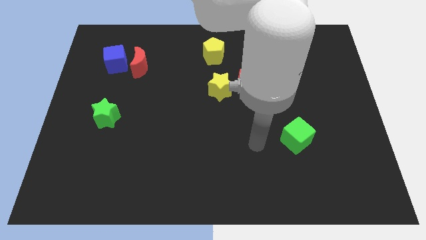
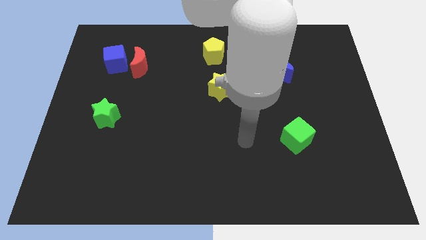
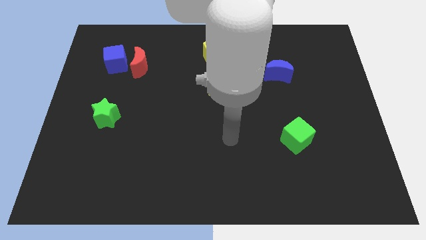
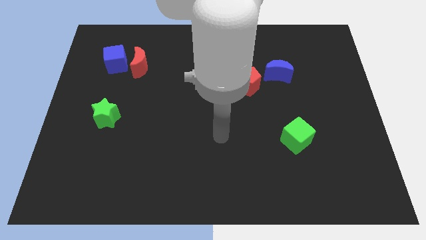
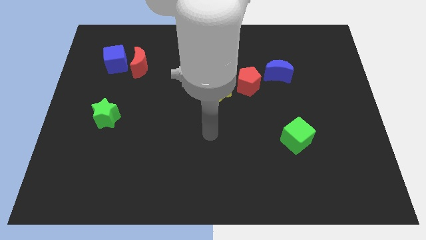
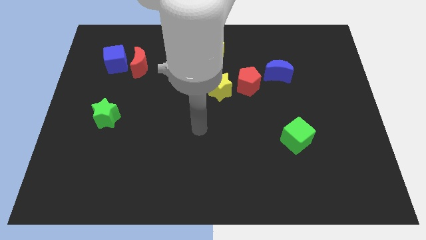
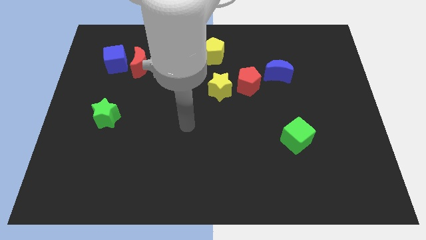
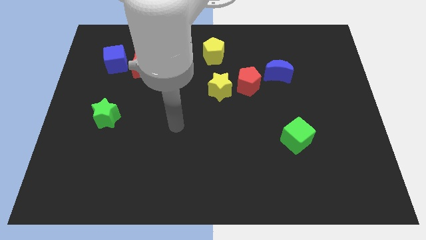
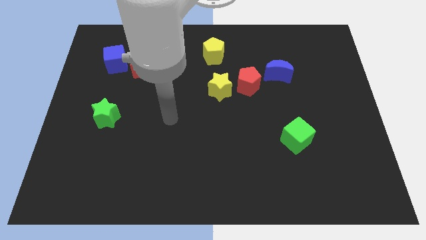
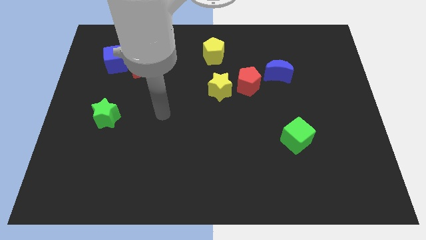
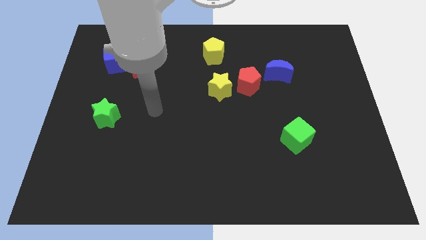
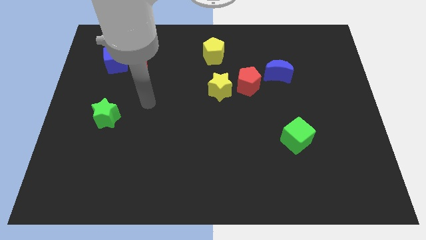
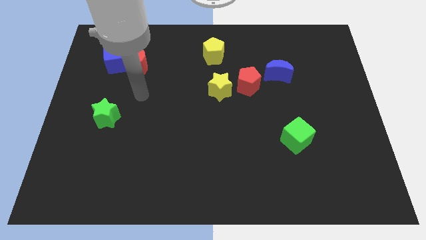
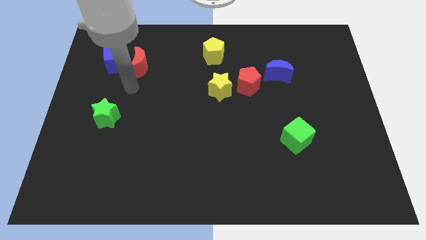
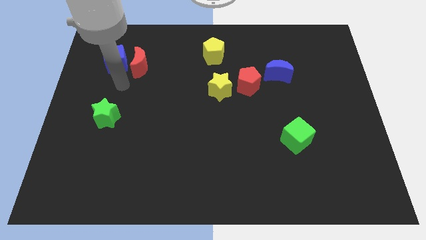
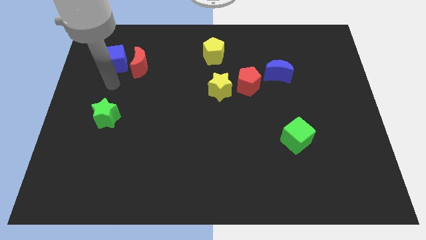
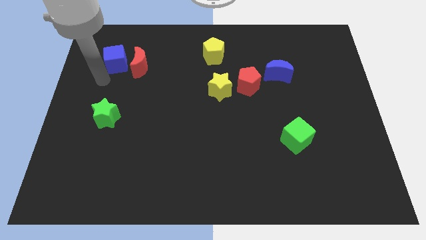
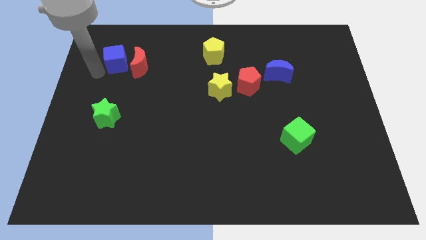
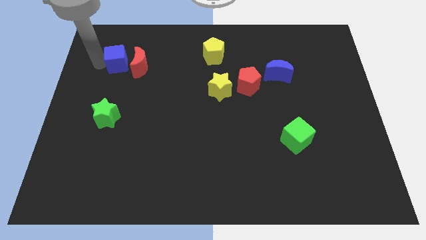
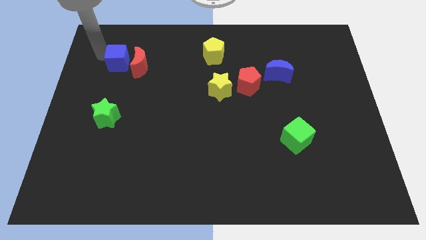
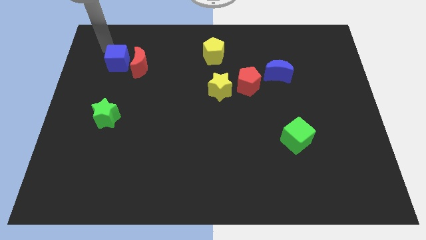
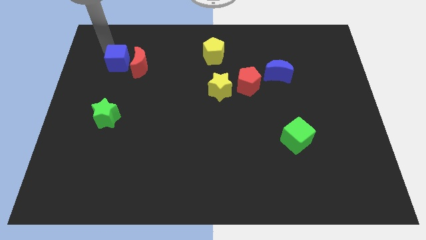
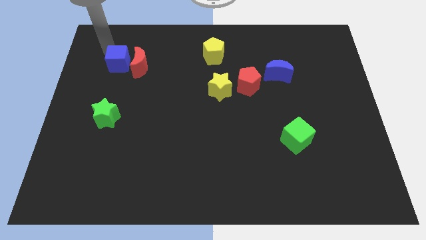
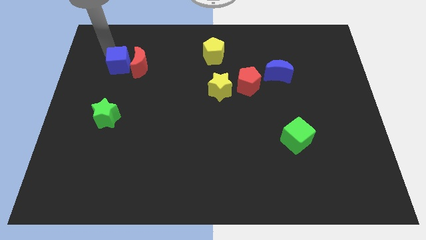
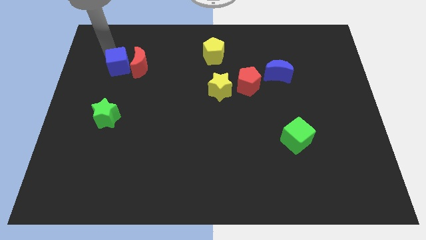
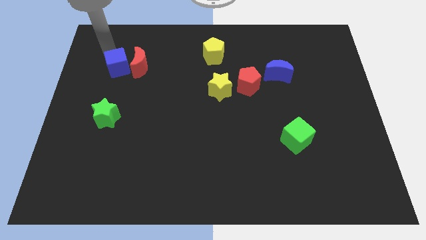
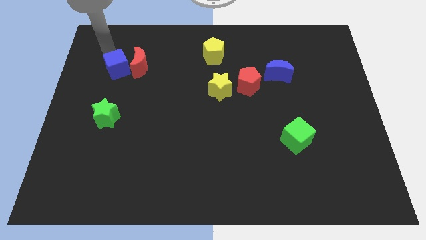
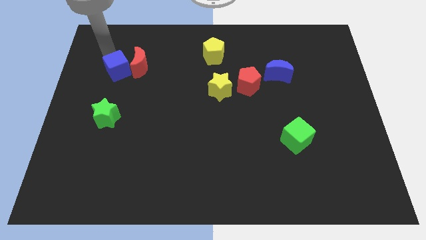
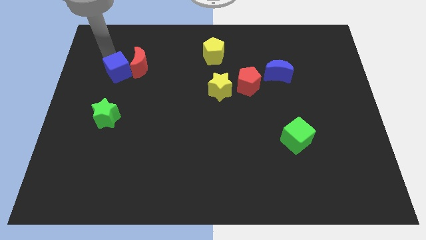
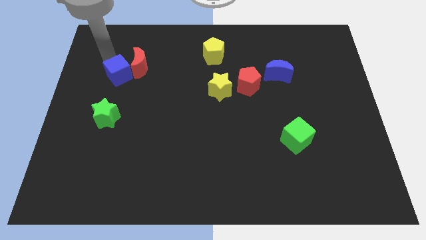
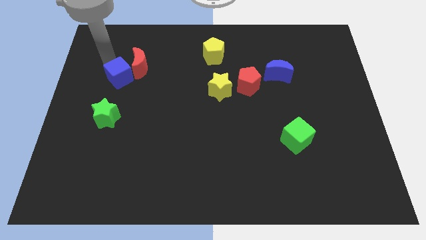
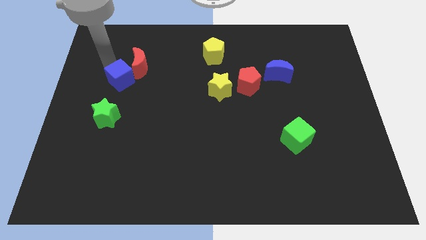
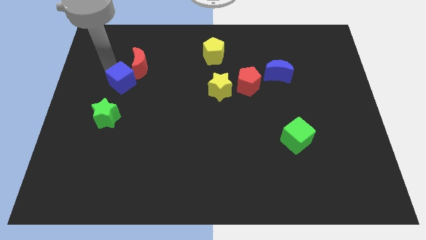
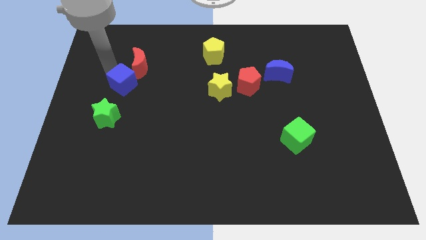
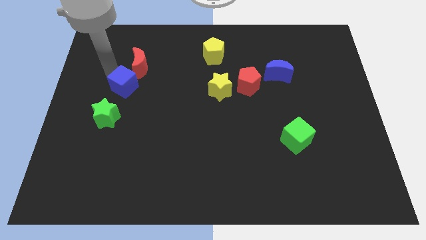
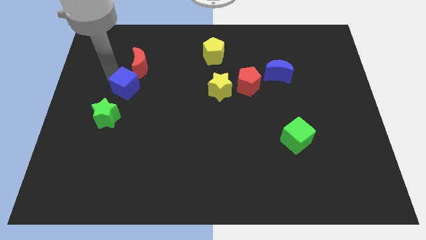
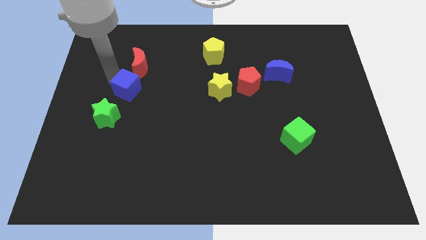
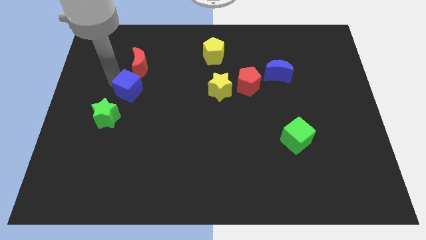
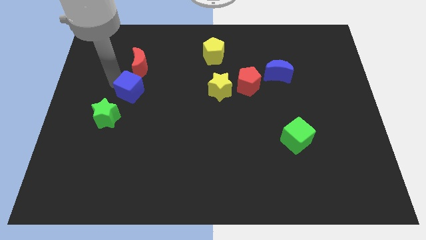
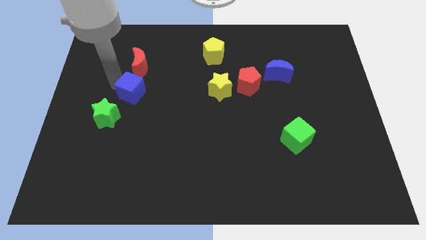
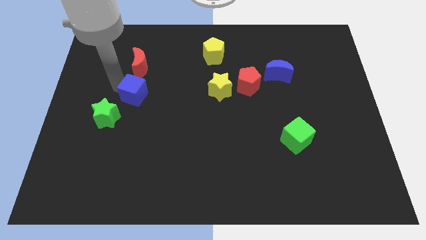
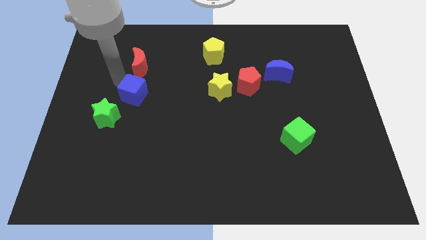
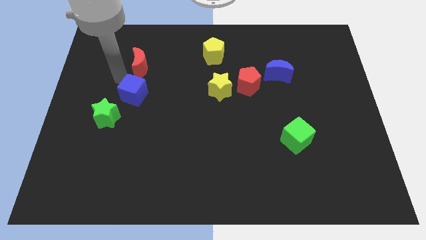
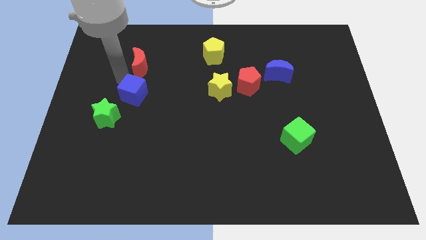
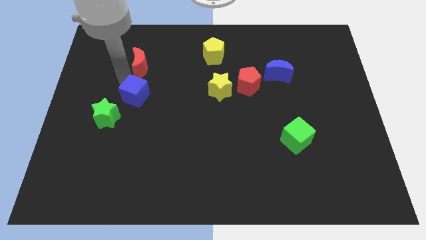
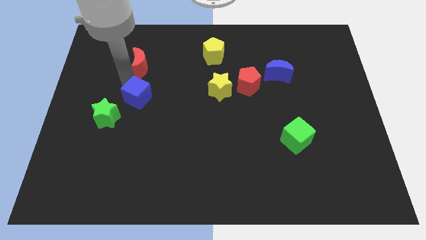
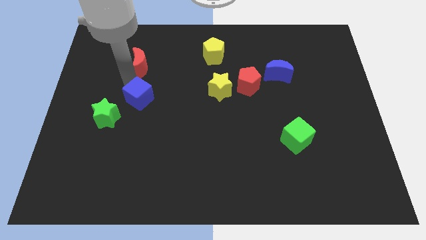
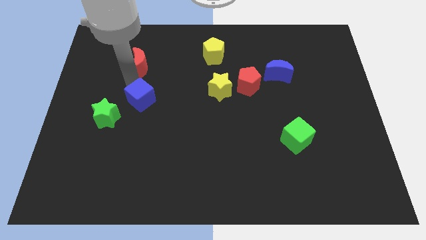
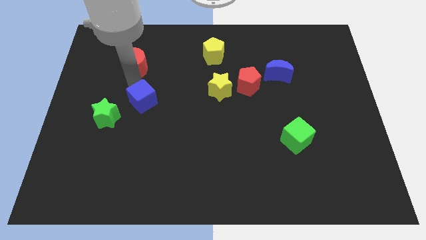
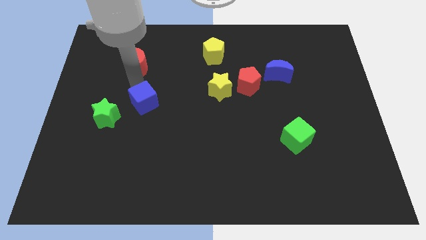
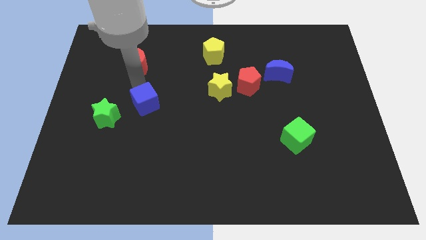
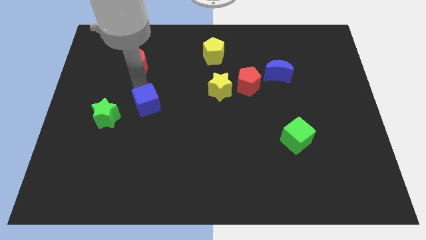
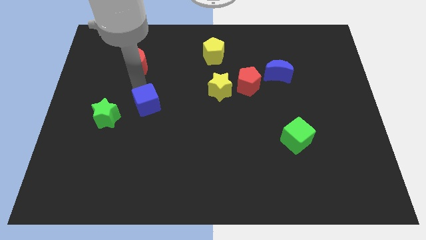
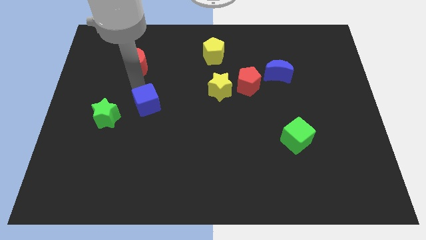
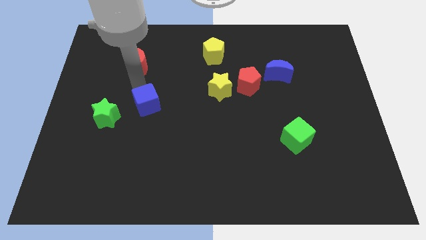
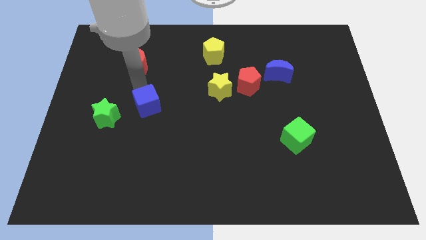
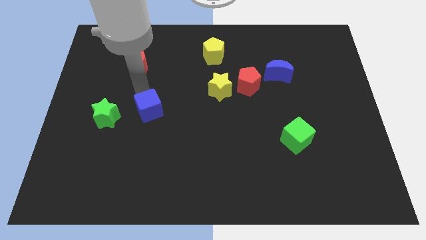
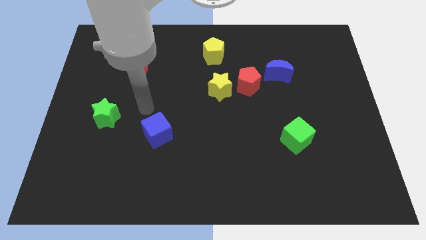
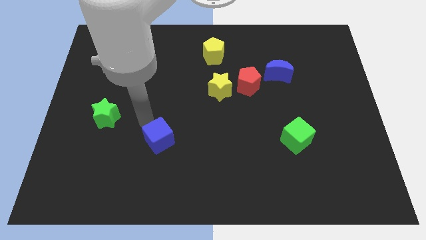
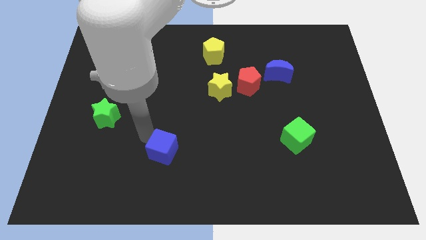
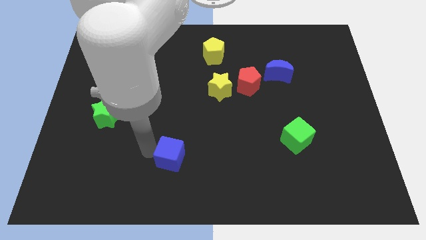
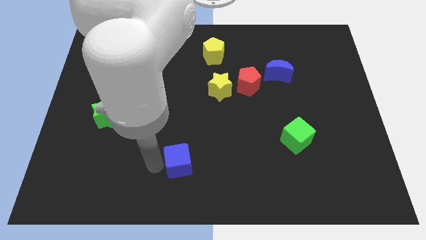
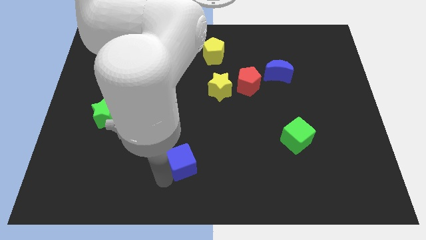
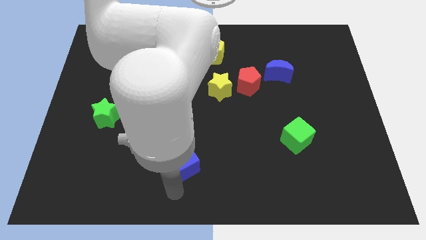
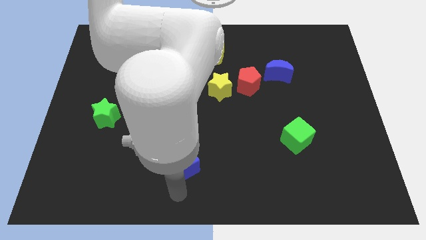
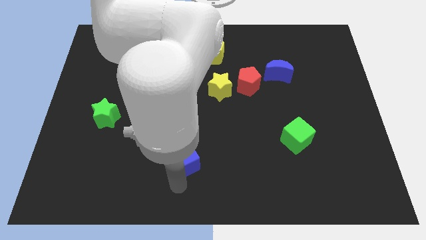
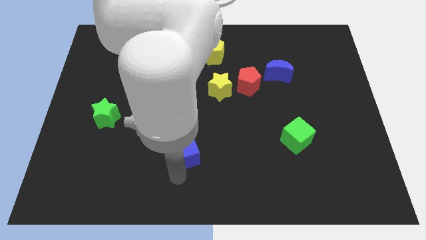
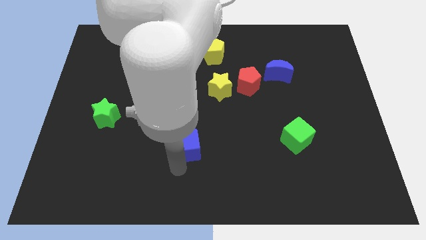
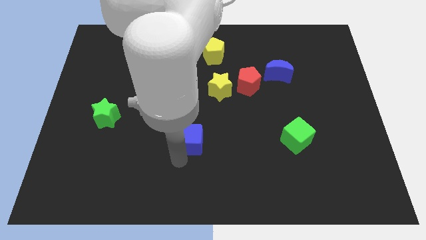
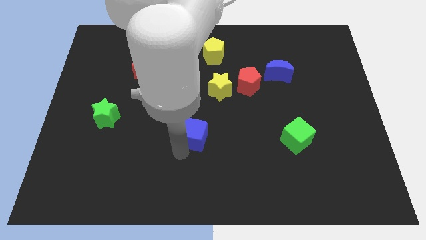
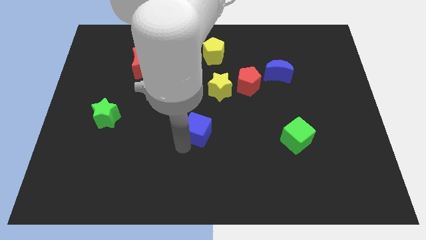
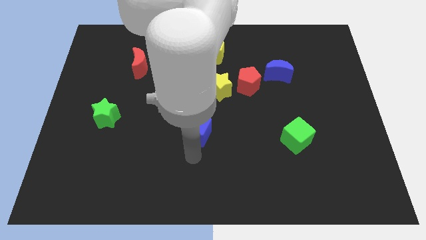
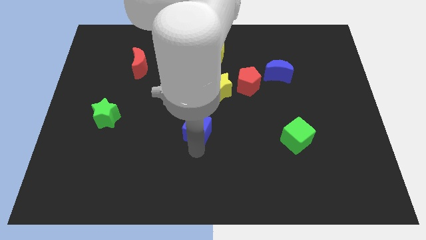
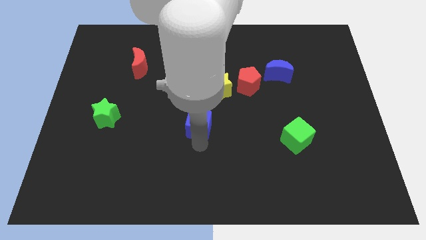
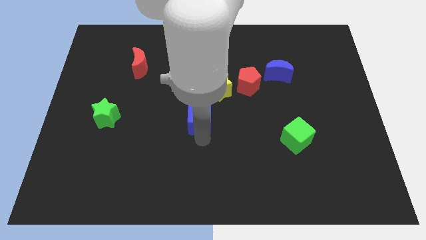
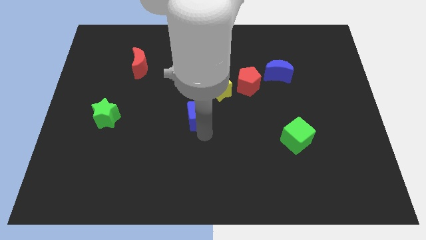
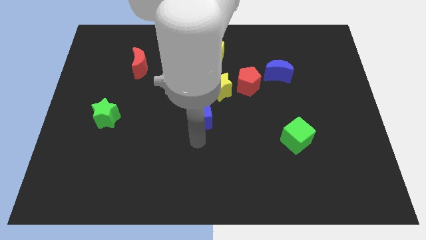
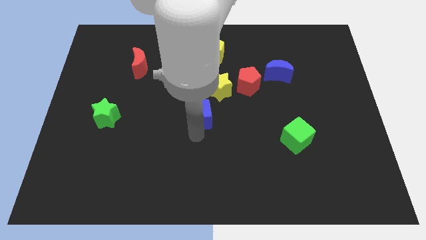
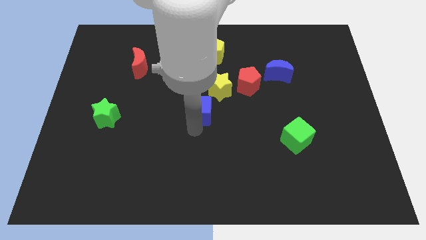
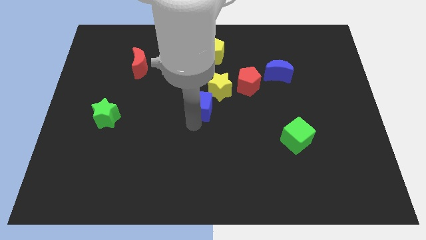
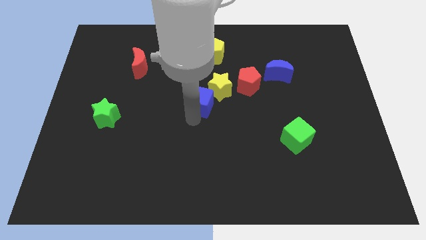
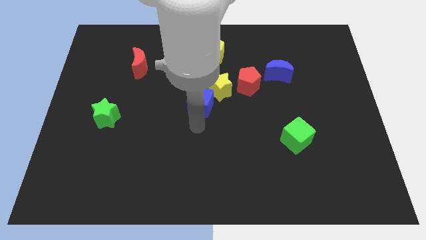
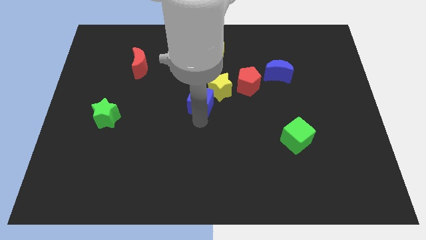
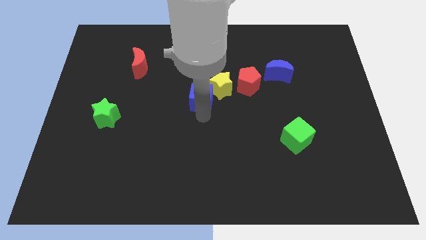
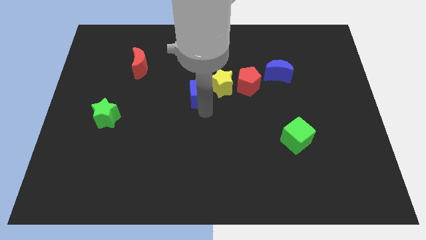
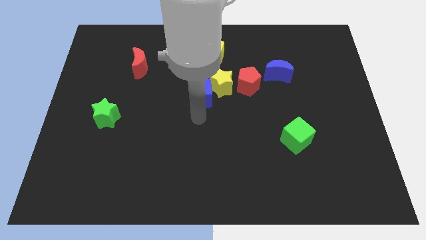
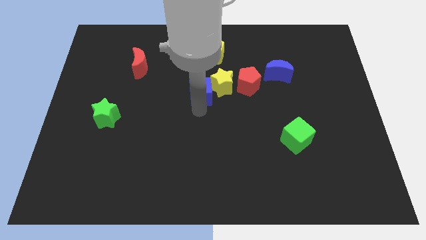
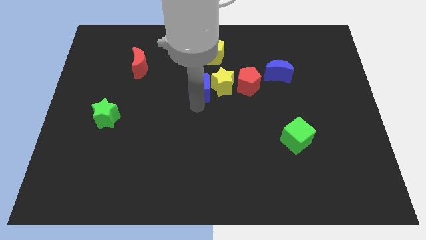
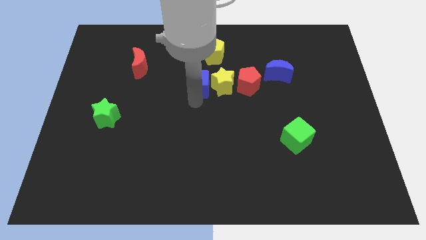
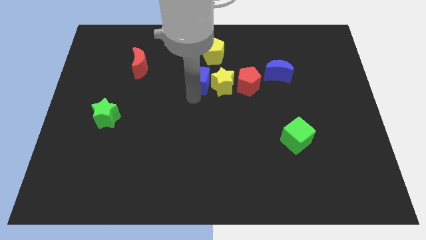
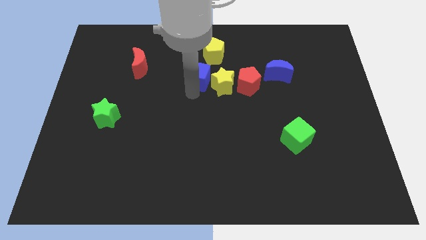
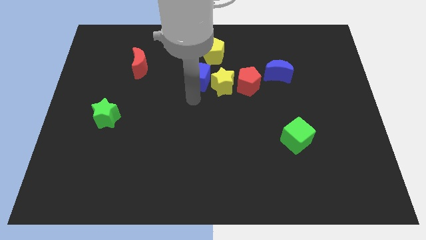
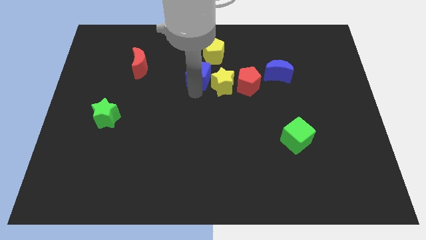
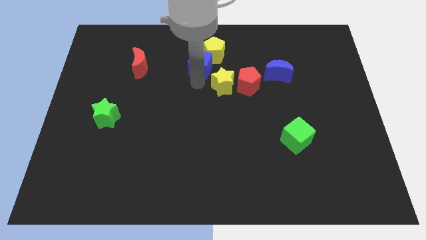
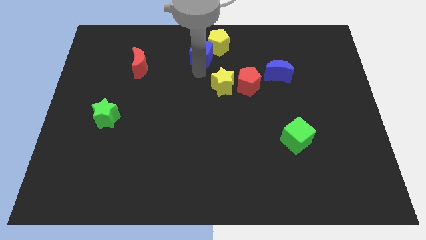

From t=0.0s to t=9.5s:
push the blue cube to the top side
